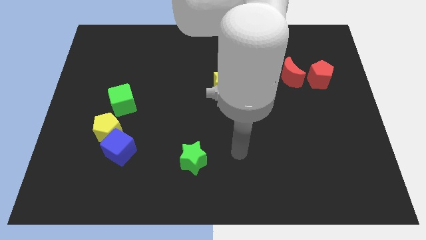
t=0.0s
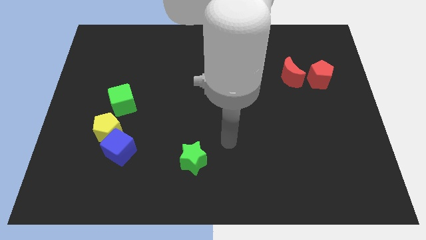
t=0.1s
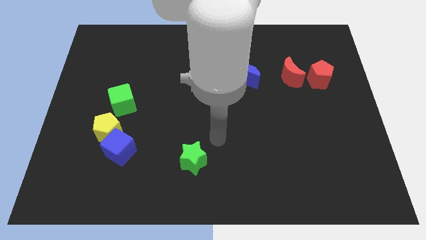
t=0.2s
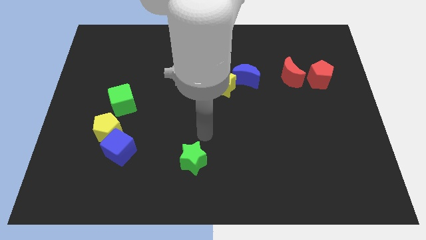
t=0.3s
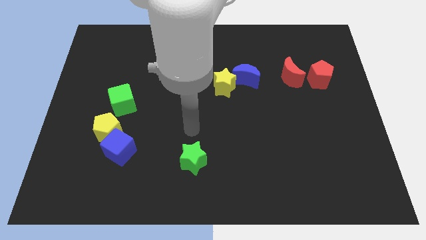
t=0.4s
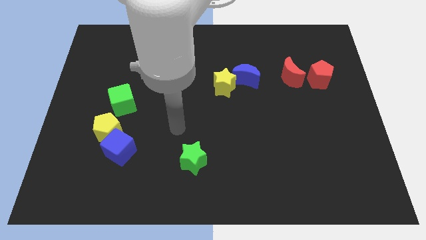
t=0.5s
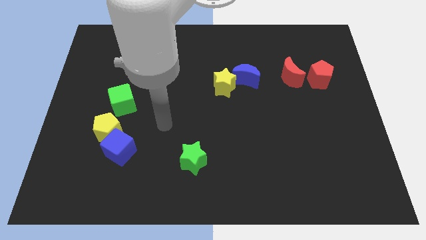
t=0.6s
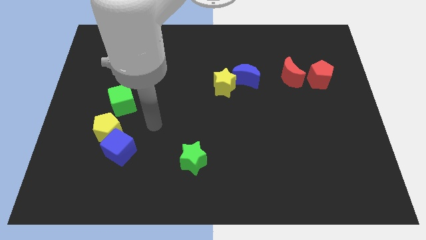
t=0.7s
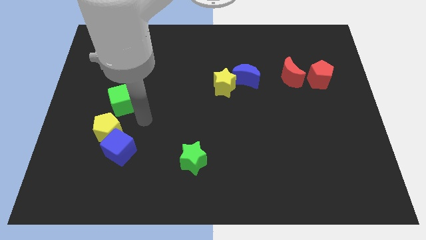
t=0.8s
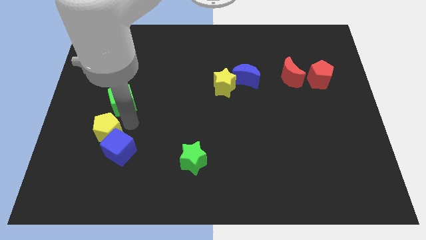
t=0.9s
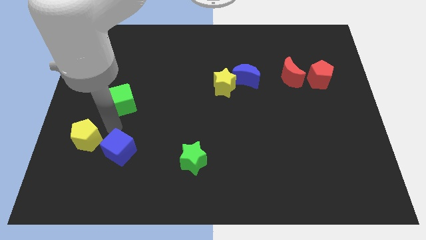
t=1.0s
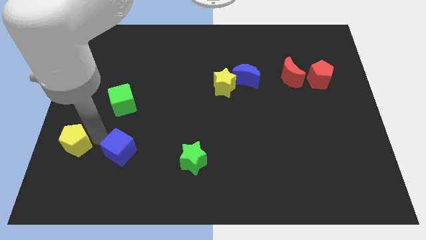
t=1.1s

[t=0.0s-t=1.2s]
separate the blue cube from the yellow pentagon

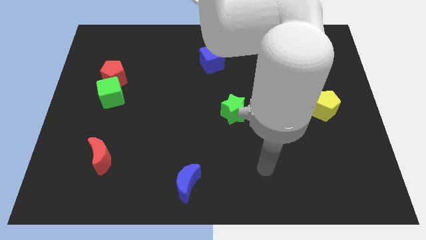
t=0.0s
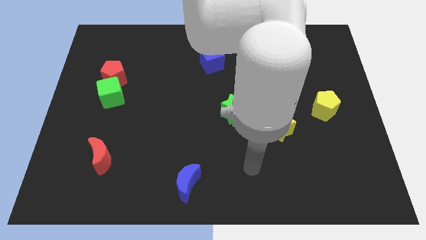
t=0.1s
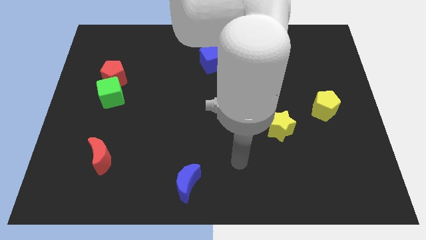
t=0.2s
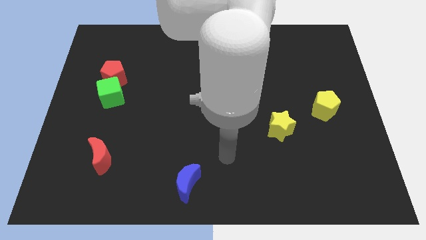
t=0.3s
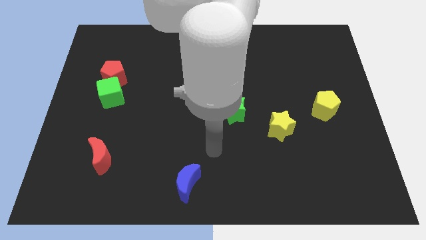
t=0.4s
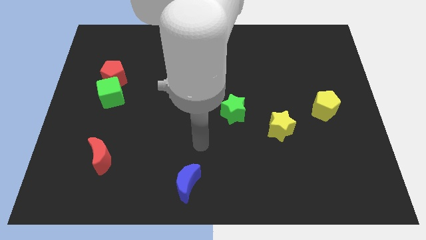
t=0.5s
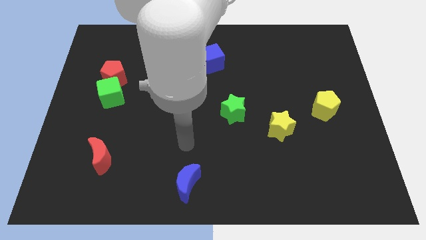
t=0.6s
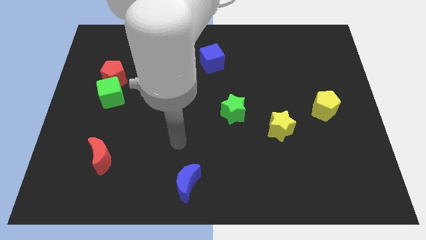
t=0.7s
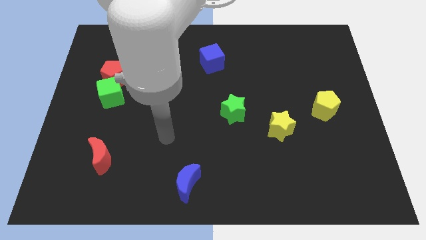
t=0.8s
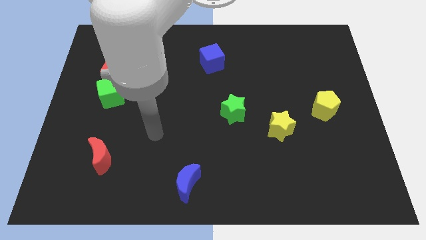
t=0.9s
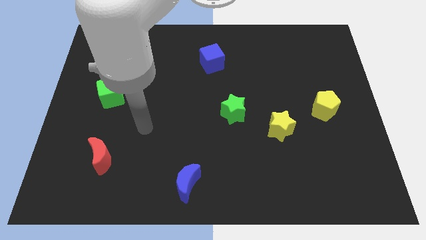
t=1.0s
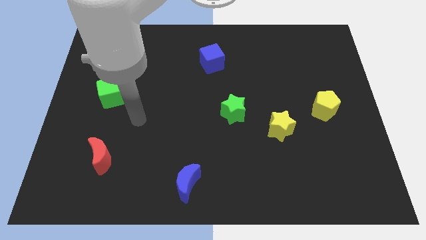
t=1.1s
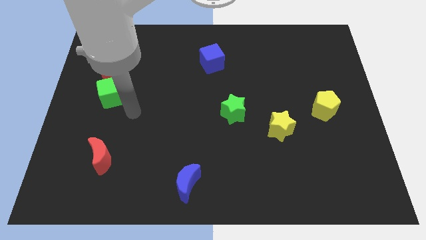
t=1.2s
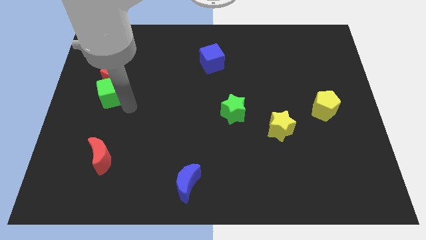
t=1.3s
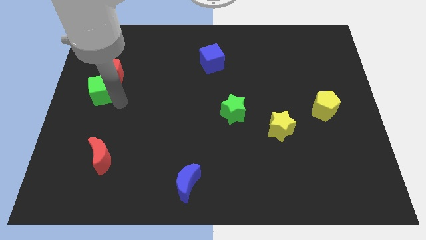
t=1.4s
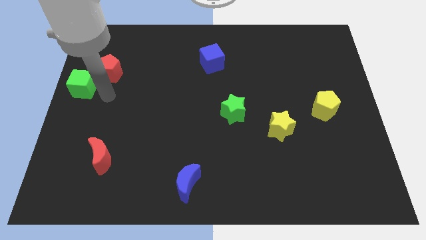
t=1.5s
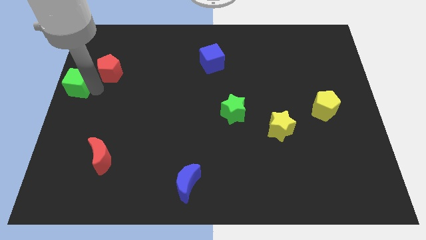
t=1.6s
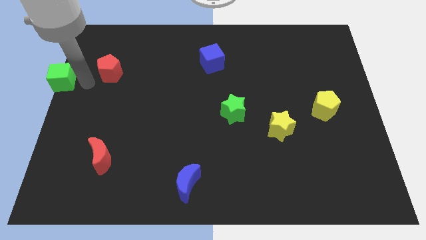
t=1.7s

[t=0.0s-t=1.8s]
move the red pentagon away from the green cube

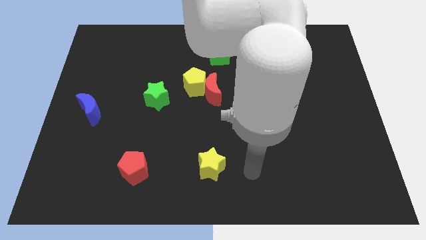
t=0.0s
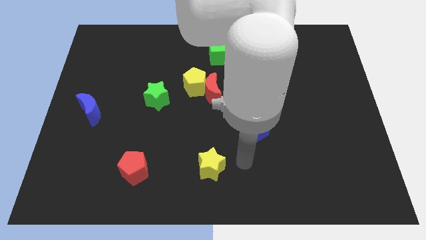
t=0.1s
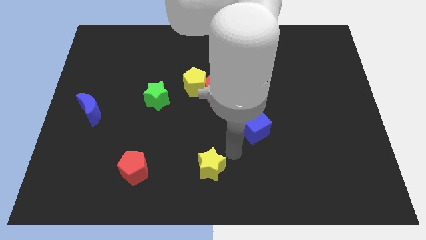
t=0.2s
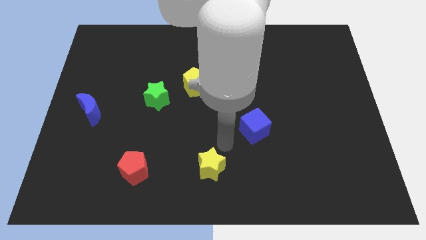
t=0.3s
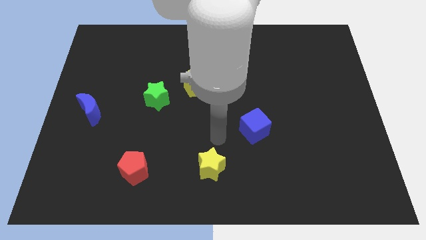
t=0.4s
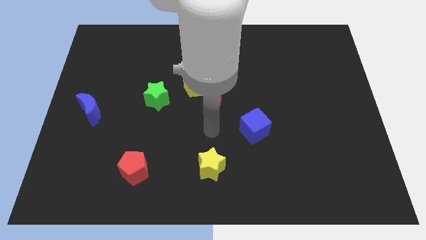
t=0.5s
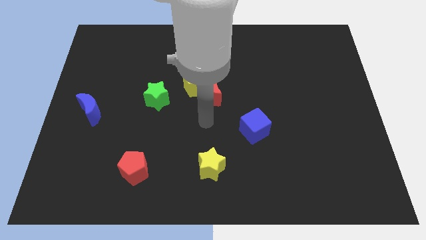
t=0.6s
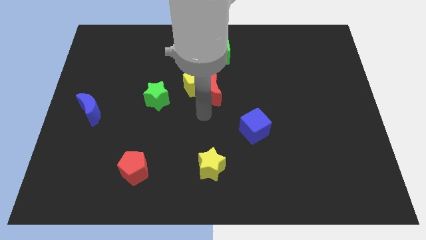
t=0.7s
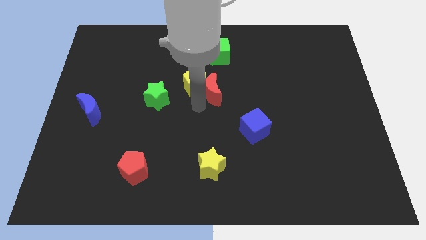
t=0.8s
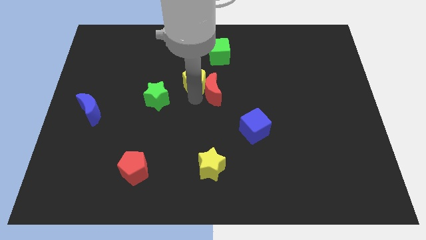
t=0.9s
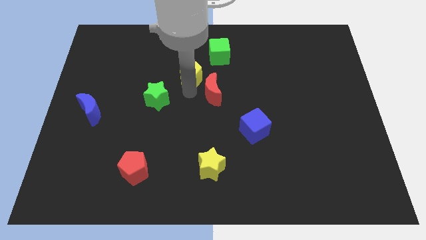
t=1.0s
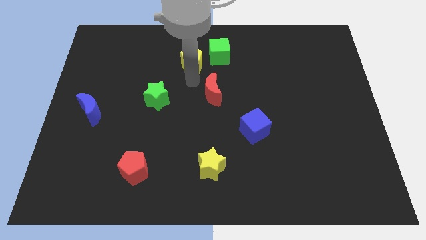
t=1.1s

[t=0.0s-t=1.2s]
move the red moon away from the yellow pentagon

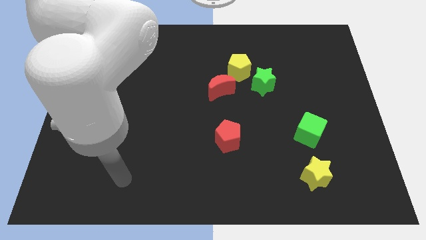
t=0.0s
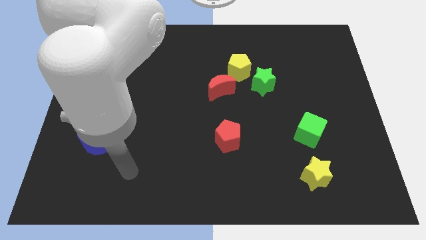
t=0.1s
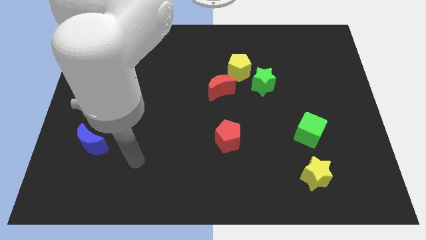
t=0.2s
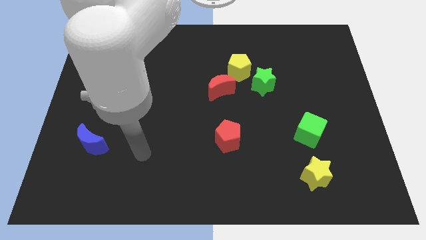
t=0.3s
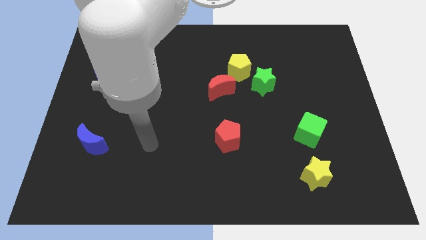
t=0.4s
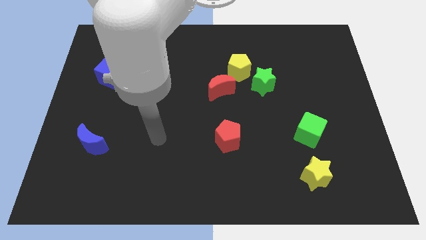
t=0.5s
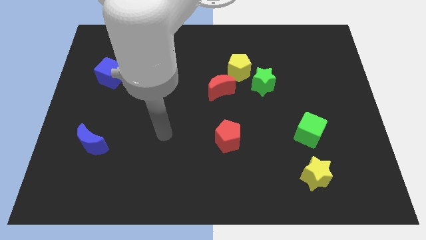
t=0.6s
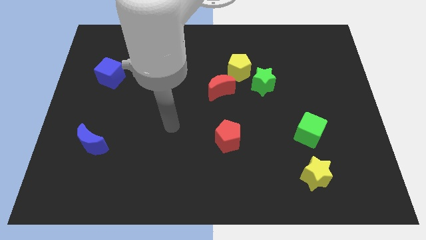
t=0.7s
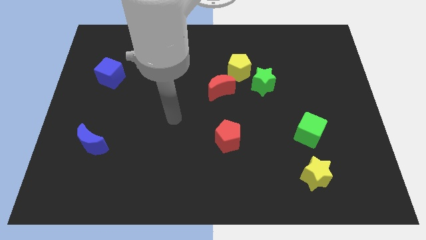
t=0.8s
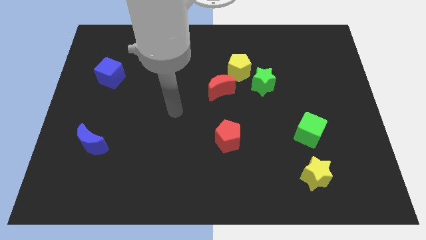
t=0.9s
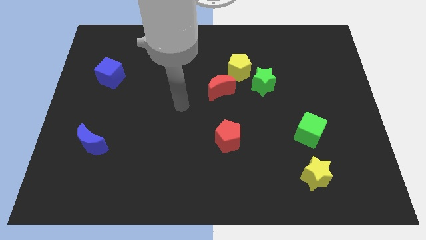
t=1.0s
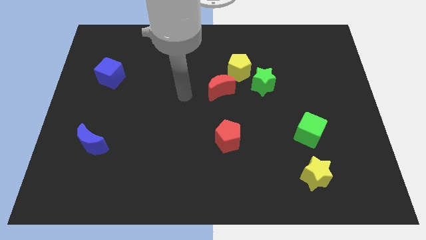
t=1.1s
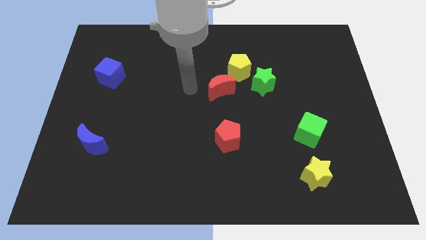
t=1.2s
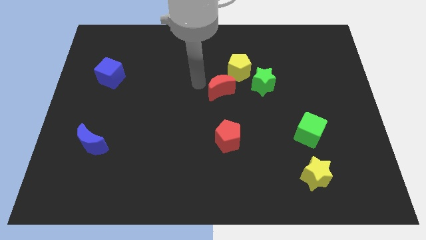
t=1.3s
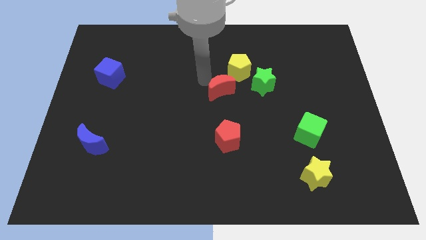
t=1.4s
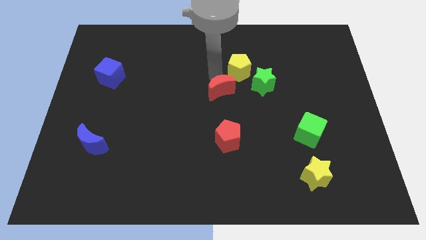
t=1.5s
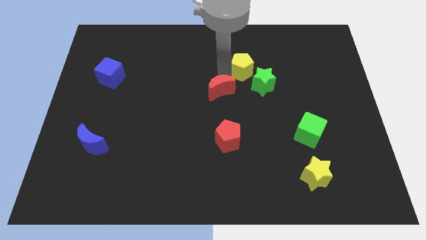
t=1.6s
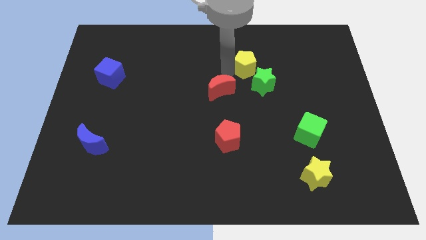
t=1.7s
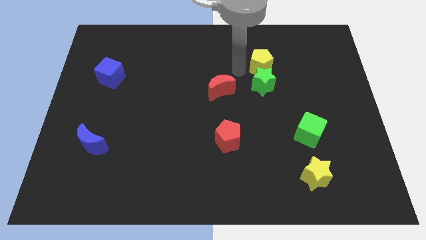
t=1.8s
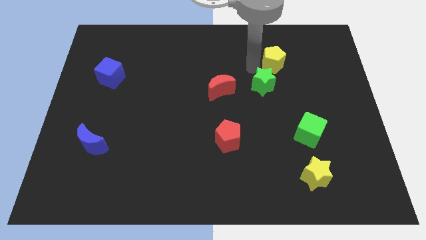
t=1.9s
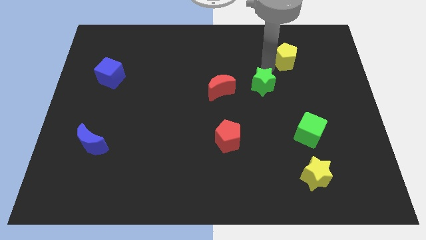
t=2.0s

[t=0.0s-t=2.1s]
pull the green star apart from the yellow pentagon

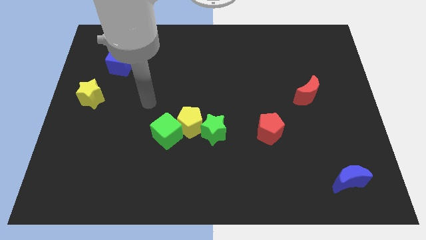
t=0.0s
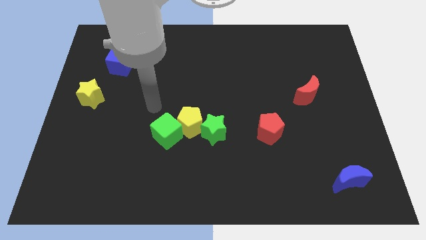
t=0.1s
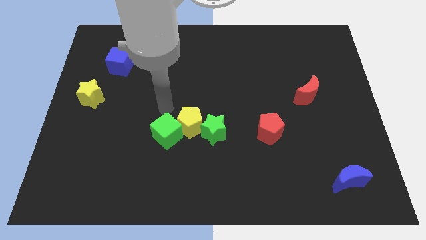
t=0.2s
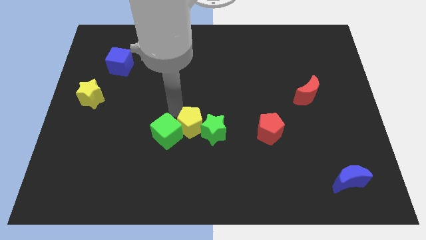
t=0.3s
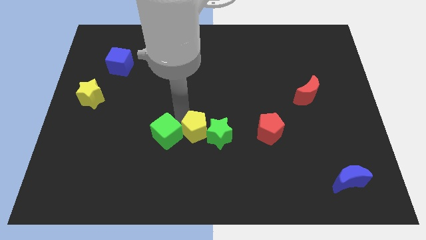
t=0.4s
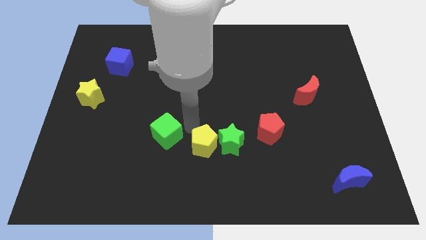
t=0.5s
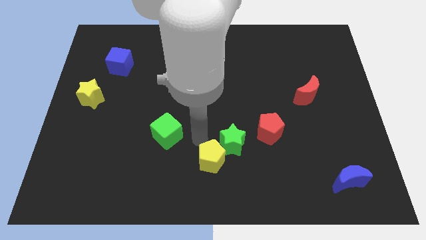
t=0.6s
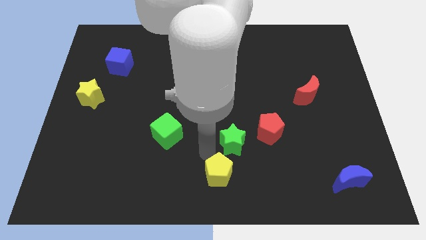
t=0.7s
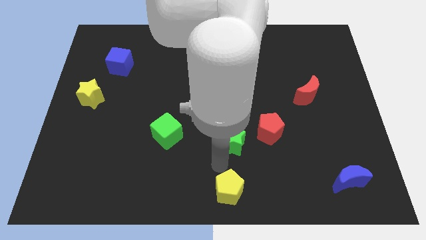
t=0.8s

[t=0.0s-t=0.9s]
move the green star away from the yellow pentagon

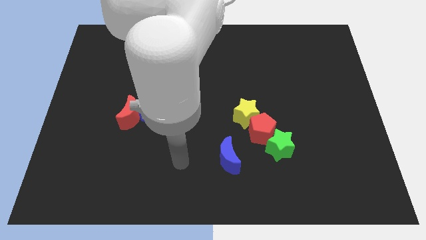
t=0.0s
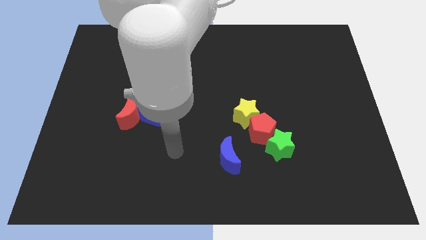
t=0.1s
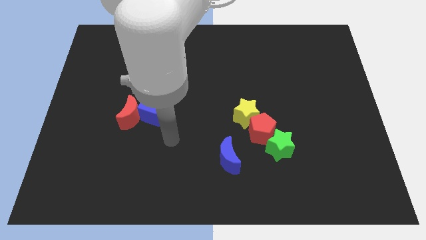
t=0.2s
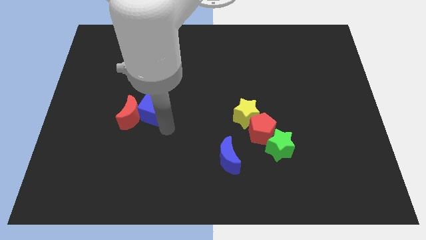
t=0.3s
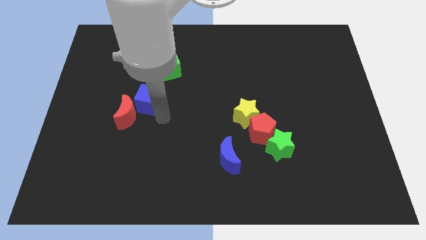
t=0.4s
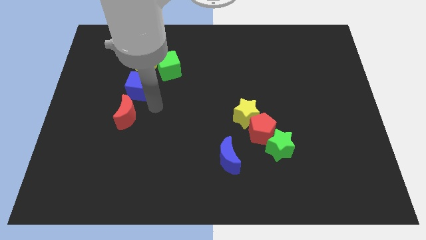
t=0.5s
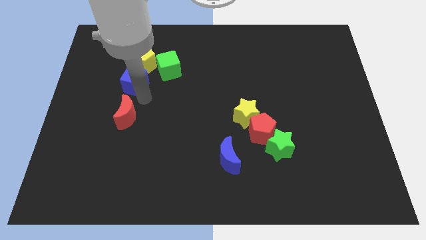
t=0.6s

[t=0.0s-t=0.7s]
separate the red moon from the blue cube

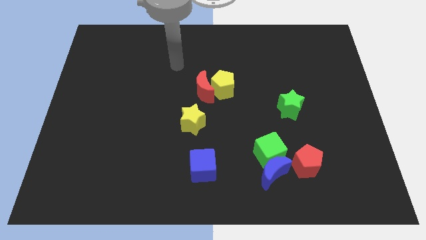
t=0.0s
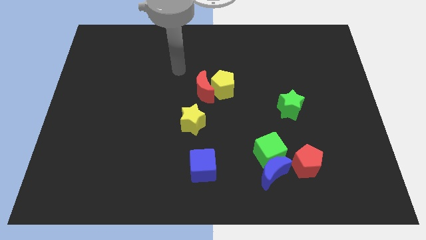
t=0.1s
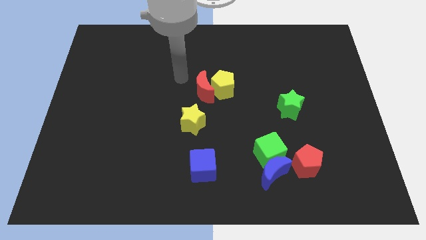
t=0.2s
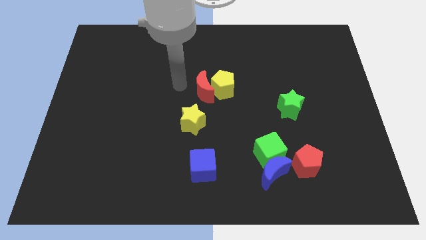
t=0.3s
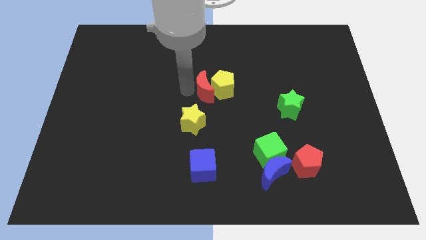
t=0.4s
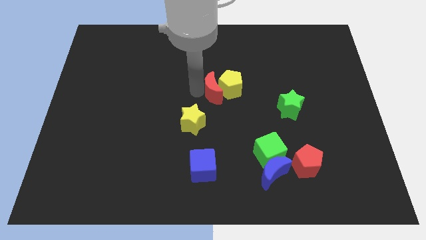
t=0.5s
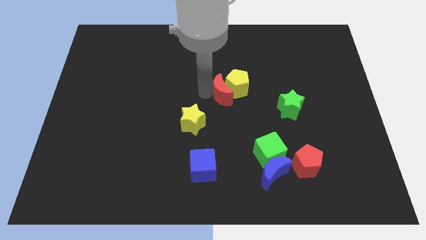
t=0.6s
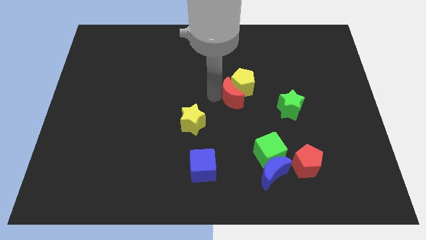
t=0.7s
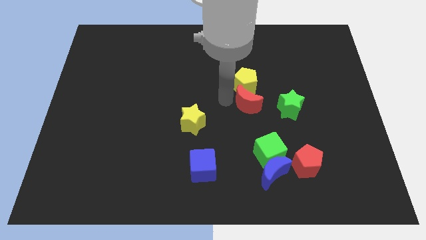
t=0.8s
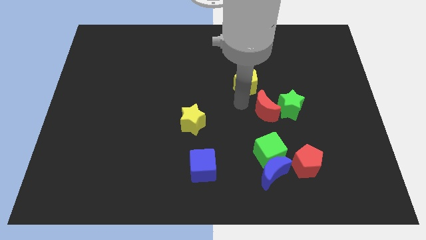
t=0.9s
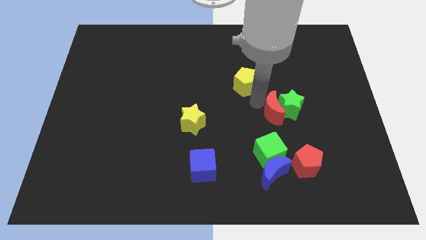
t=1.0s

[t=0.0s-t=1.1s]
pull the yellow pentagon apart from the red moon

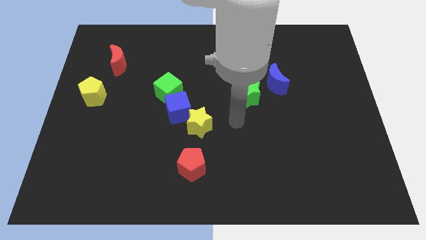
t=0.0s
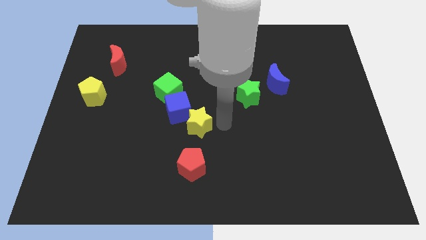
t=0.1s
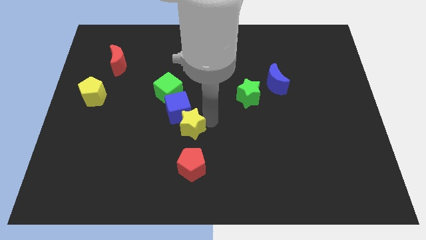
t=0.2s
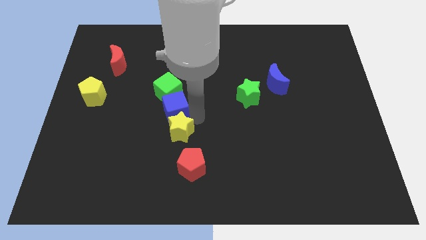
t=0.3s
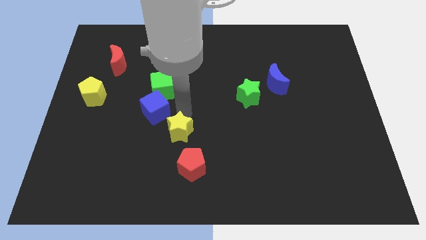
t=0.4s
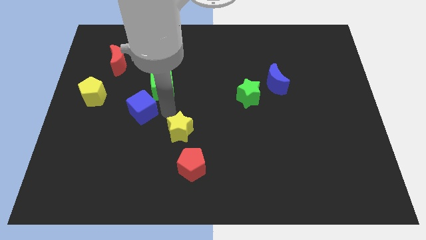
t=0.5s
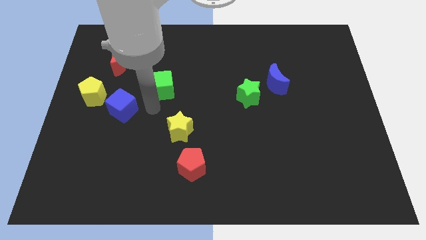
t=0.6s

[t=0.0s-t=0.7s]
pull the green cube apart from the blue cube
